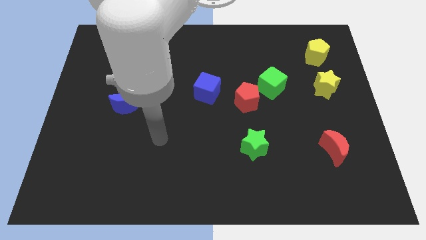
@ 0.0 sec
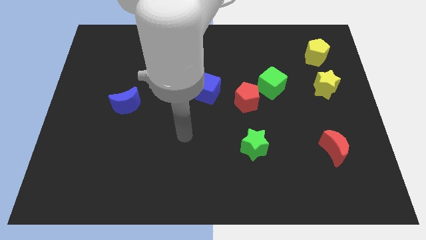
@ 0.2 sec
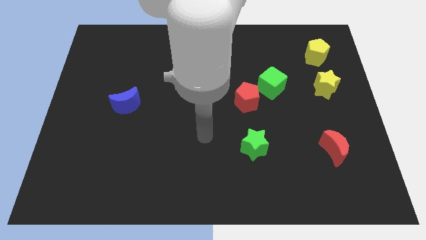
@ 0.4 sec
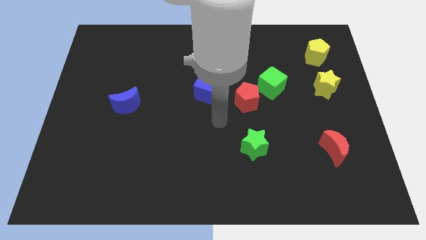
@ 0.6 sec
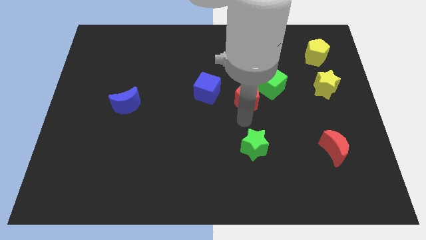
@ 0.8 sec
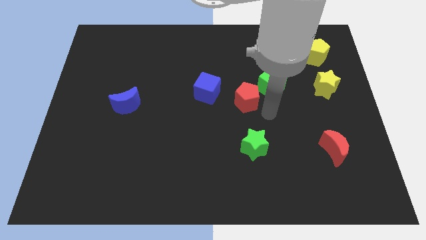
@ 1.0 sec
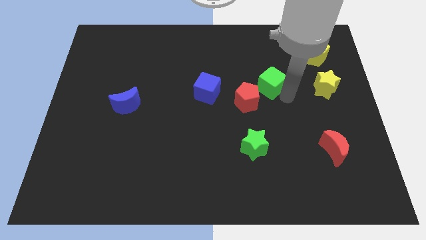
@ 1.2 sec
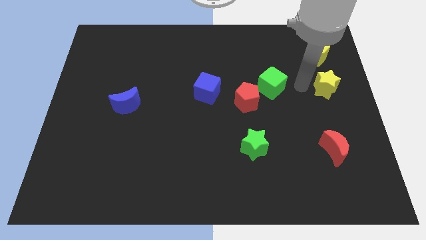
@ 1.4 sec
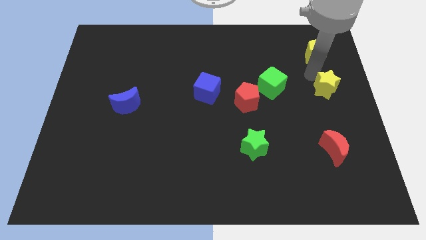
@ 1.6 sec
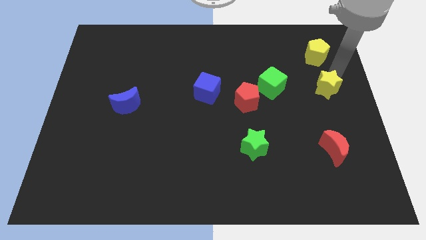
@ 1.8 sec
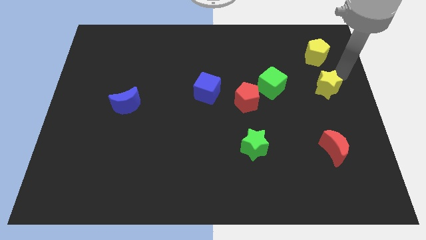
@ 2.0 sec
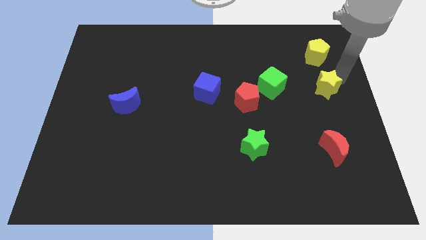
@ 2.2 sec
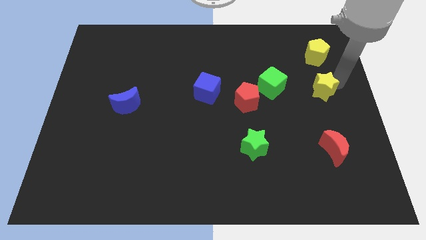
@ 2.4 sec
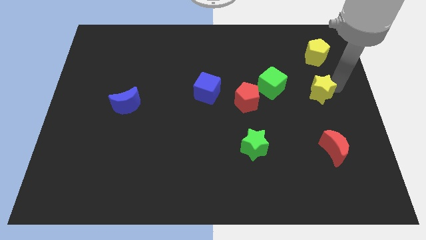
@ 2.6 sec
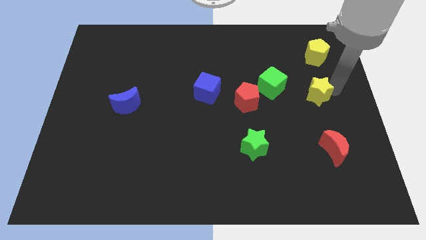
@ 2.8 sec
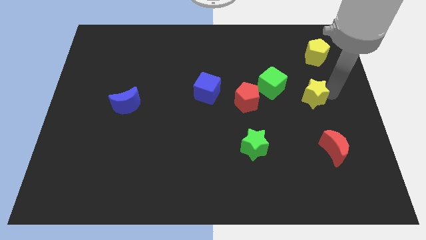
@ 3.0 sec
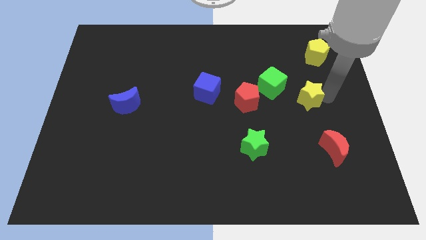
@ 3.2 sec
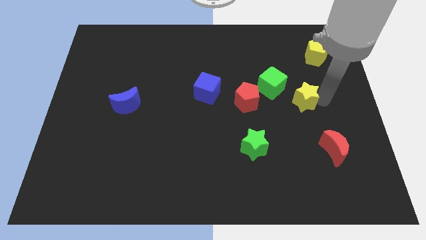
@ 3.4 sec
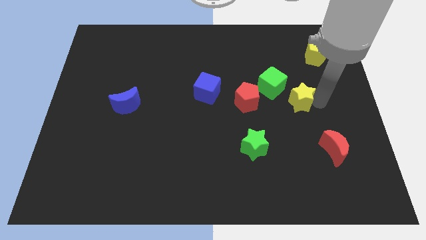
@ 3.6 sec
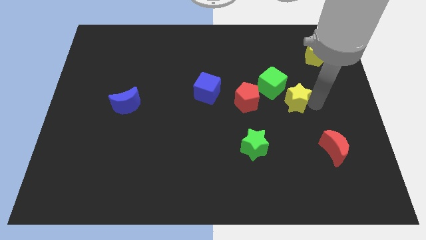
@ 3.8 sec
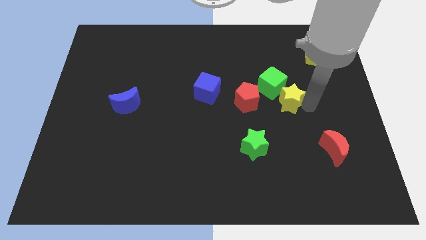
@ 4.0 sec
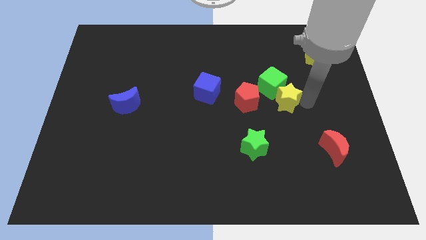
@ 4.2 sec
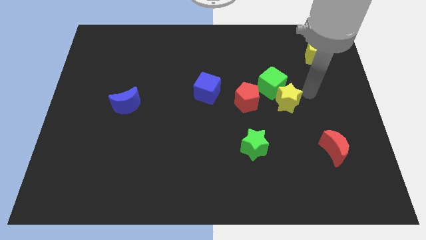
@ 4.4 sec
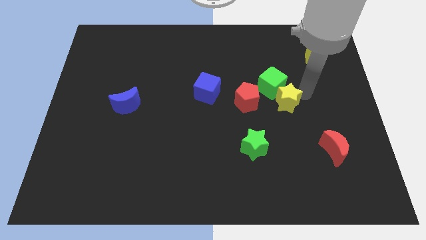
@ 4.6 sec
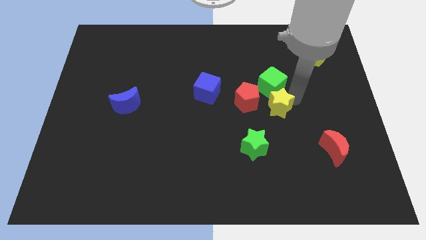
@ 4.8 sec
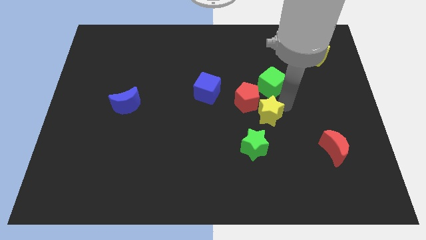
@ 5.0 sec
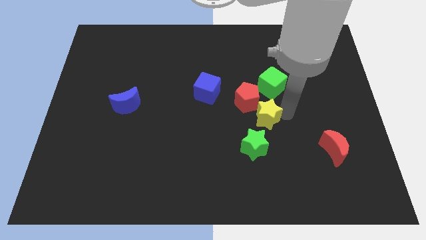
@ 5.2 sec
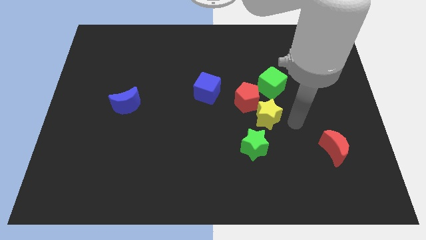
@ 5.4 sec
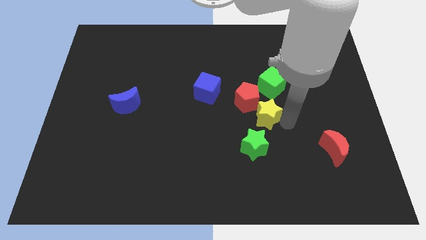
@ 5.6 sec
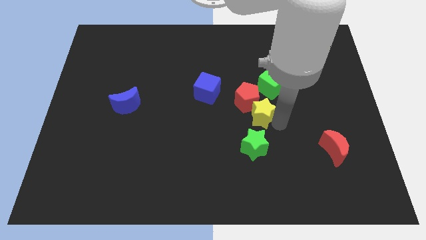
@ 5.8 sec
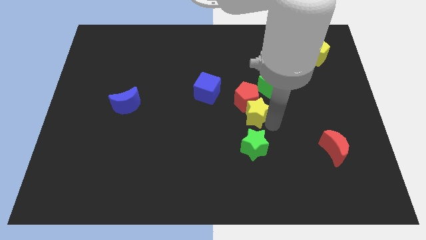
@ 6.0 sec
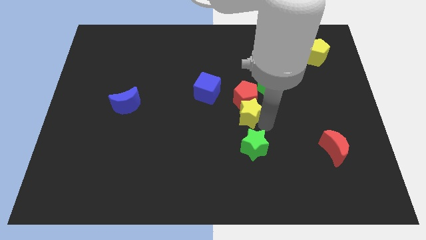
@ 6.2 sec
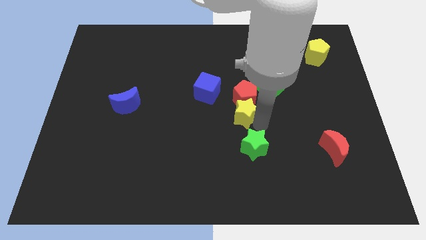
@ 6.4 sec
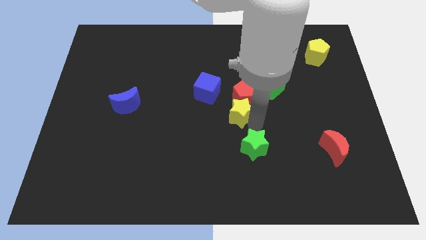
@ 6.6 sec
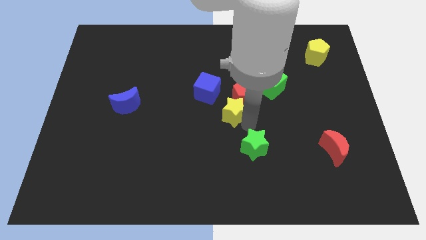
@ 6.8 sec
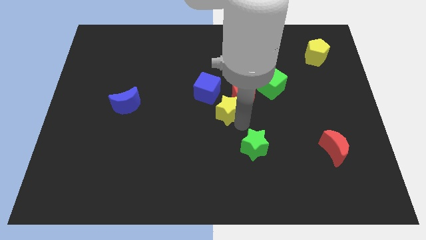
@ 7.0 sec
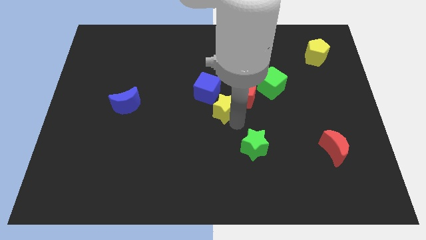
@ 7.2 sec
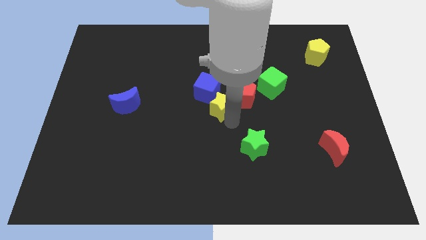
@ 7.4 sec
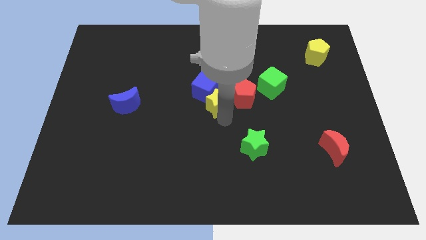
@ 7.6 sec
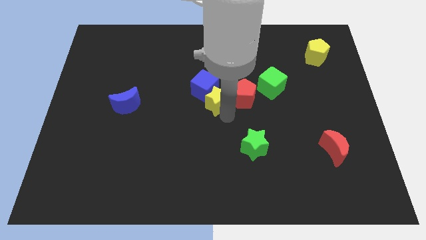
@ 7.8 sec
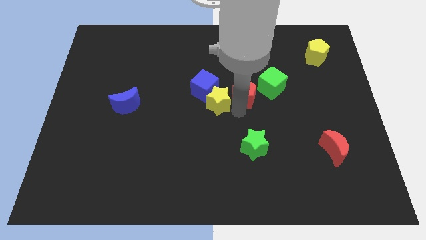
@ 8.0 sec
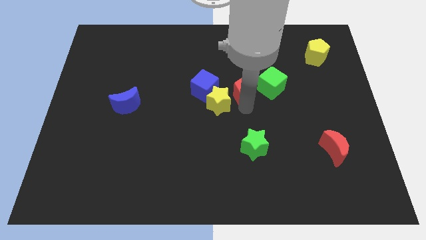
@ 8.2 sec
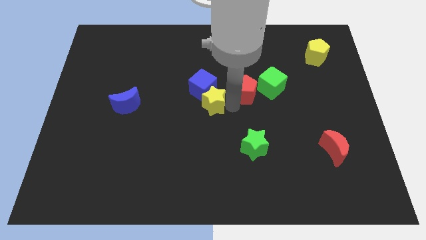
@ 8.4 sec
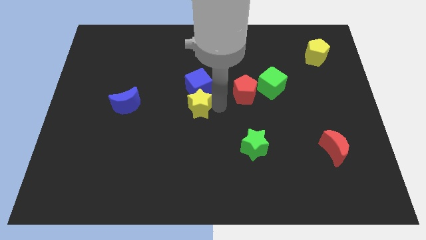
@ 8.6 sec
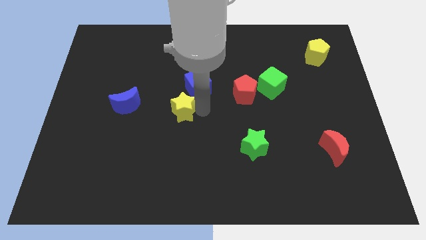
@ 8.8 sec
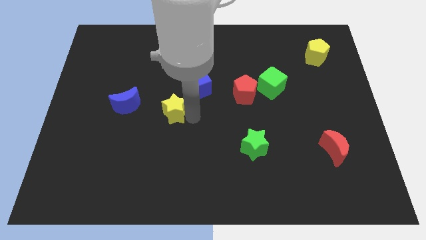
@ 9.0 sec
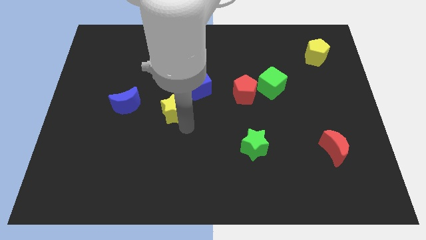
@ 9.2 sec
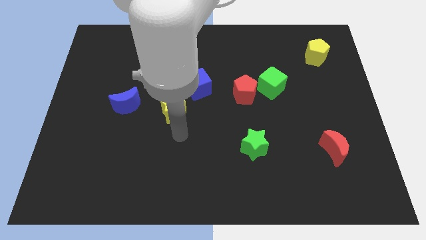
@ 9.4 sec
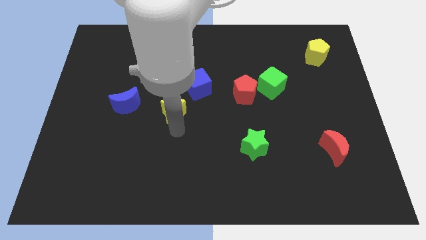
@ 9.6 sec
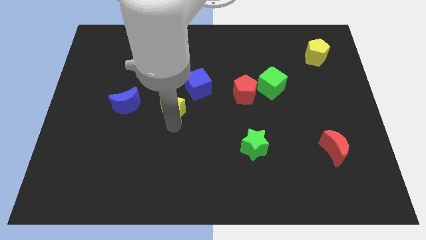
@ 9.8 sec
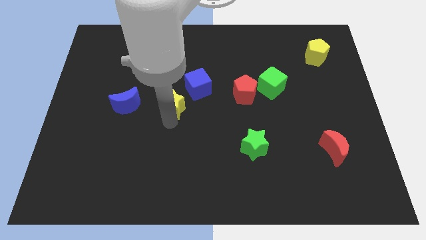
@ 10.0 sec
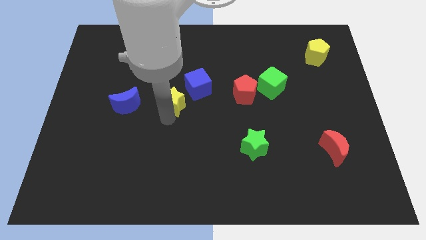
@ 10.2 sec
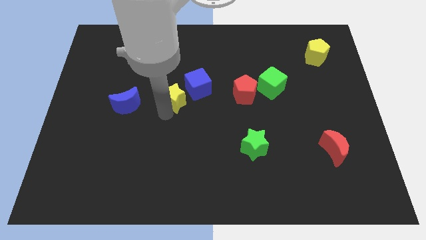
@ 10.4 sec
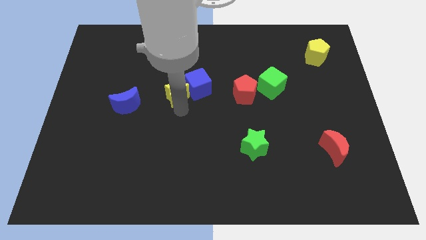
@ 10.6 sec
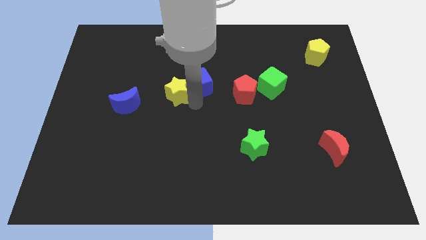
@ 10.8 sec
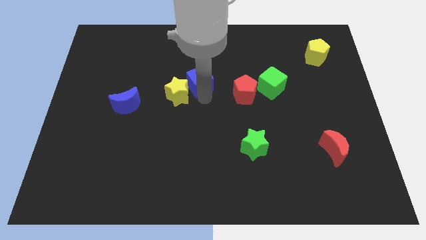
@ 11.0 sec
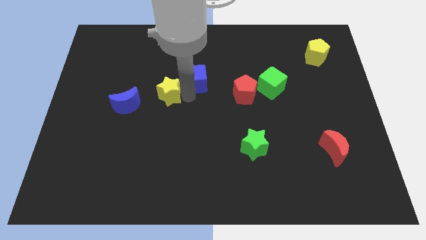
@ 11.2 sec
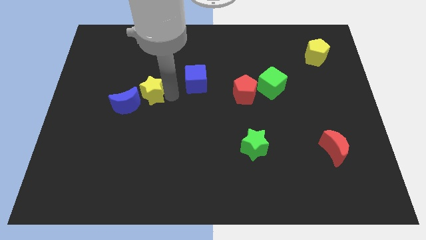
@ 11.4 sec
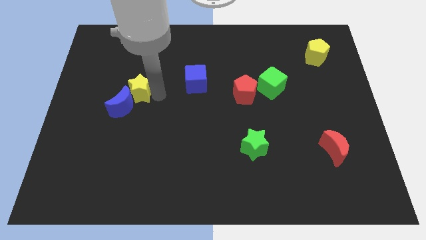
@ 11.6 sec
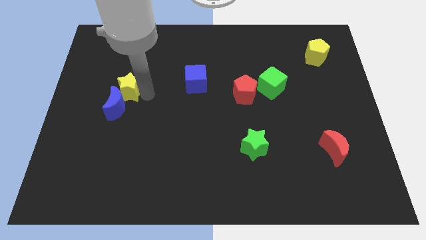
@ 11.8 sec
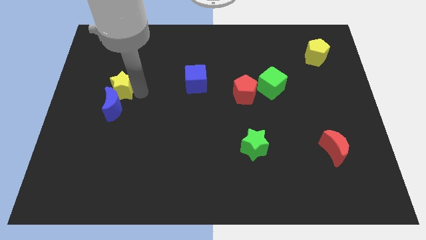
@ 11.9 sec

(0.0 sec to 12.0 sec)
put the yellow star to the top left of the blue moon

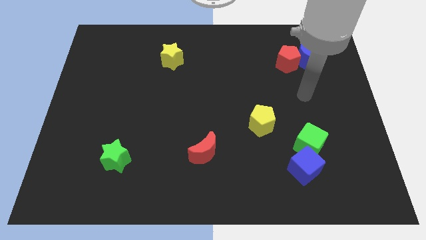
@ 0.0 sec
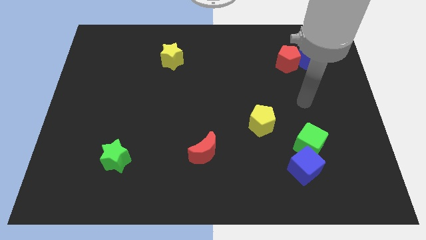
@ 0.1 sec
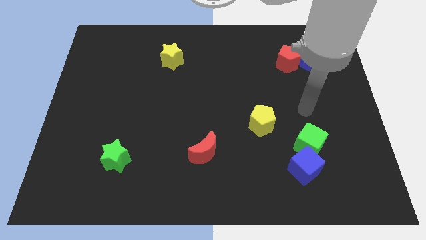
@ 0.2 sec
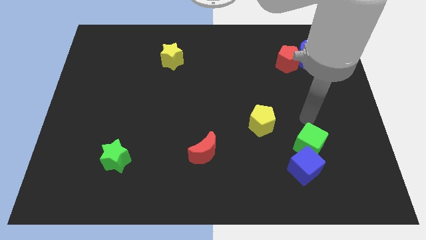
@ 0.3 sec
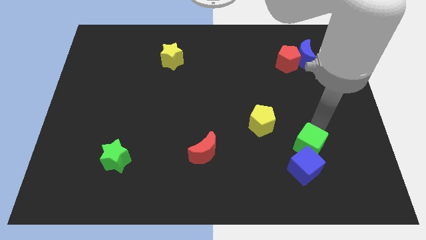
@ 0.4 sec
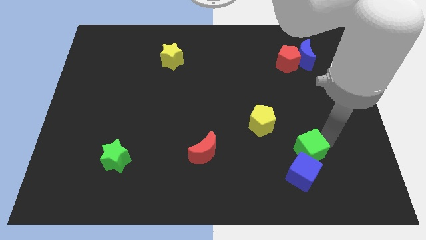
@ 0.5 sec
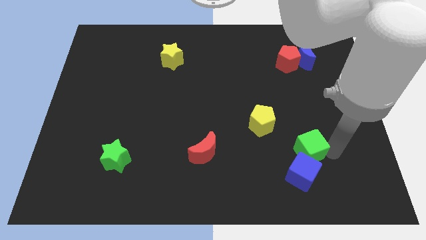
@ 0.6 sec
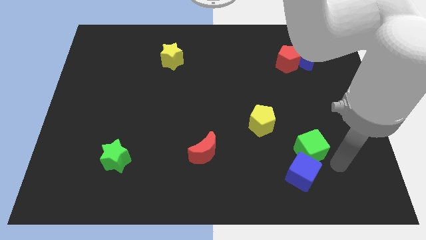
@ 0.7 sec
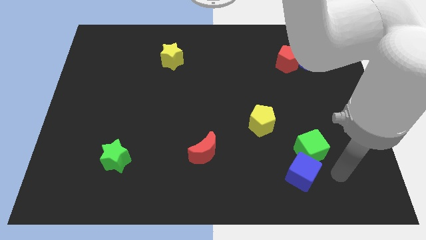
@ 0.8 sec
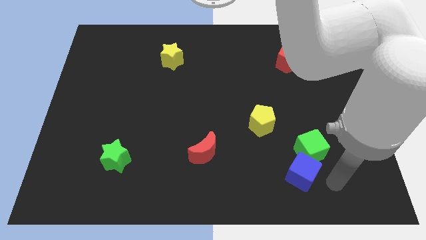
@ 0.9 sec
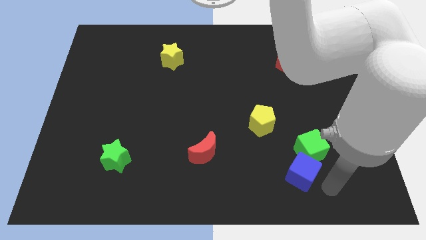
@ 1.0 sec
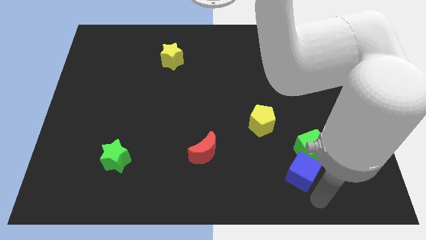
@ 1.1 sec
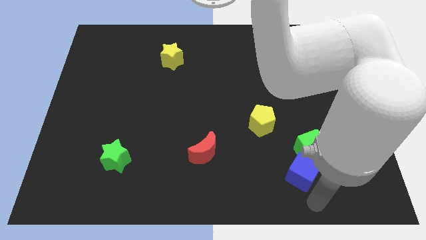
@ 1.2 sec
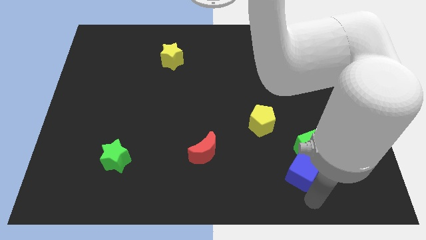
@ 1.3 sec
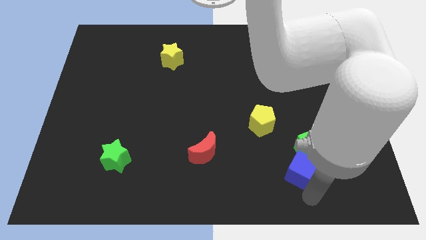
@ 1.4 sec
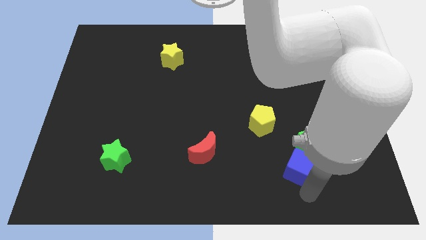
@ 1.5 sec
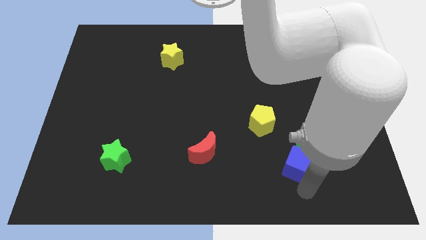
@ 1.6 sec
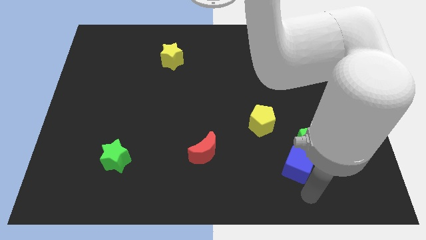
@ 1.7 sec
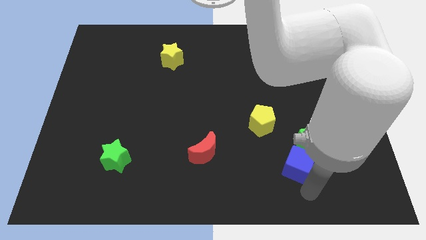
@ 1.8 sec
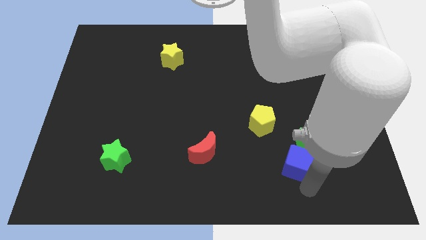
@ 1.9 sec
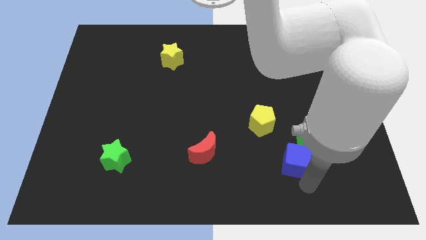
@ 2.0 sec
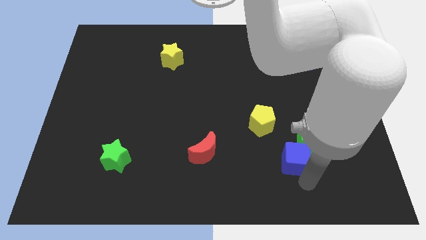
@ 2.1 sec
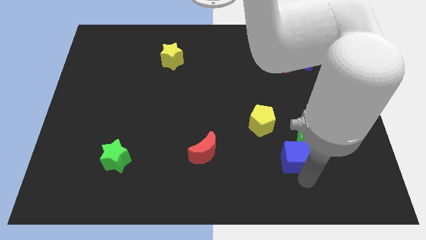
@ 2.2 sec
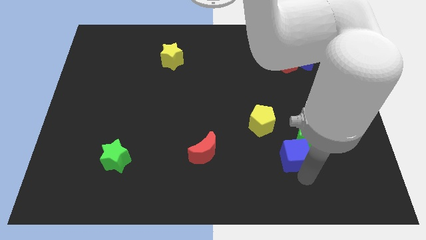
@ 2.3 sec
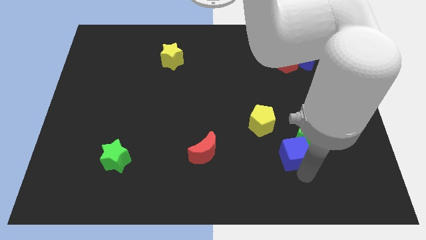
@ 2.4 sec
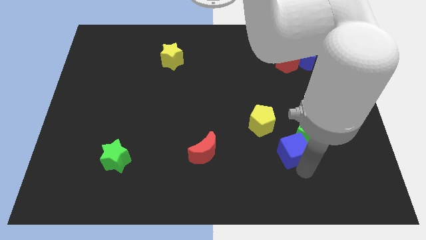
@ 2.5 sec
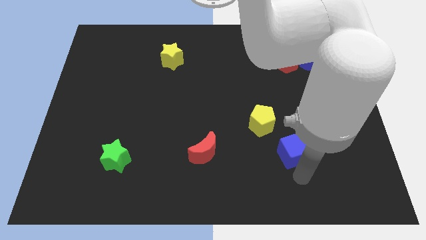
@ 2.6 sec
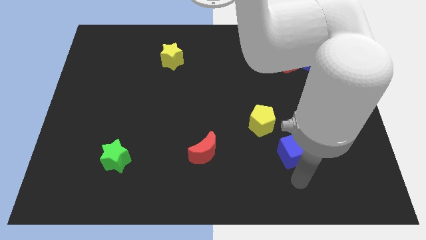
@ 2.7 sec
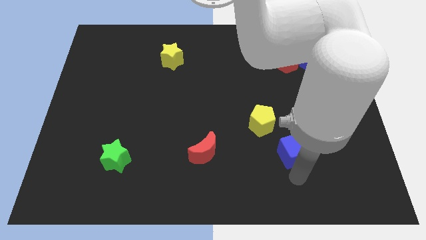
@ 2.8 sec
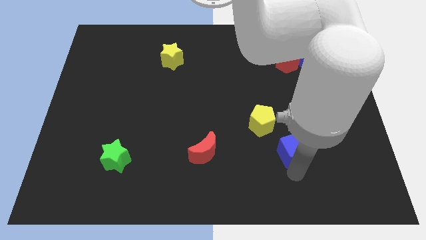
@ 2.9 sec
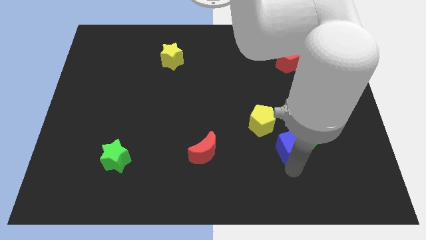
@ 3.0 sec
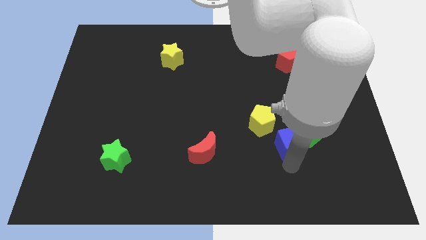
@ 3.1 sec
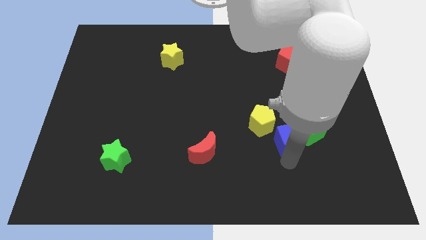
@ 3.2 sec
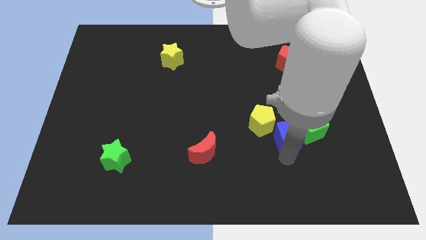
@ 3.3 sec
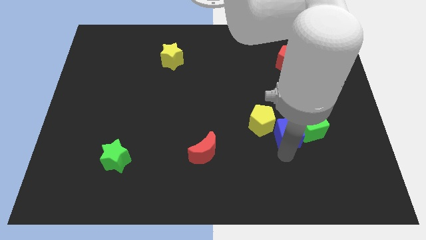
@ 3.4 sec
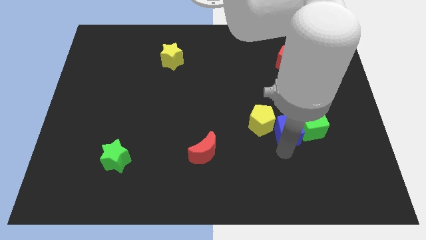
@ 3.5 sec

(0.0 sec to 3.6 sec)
push the blue cube diagonally up and to the left of the green cube
